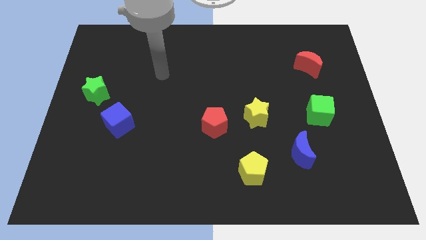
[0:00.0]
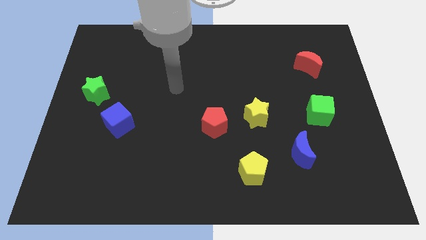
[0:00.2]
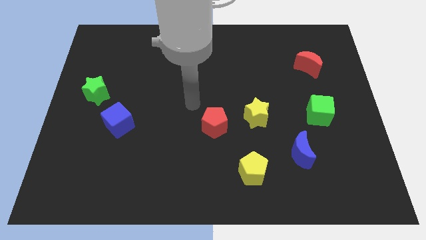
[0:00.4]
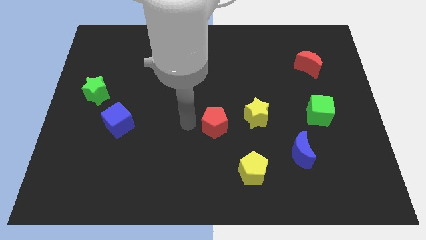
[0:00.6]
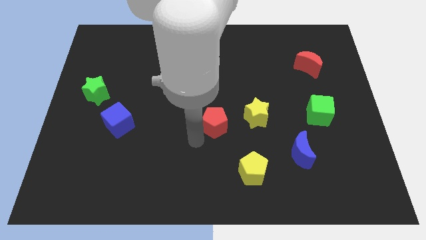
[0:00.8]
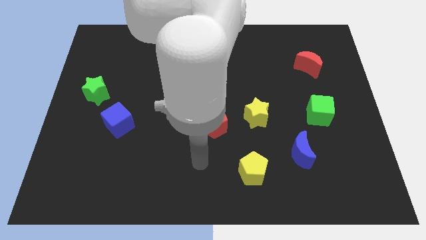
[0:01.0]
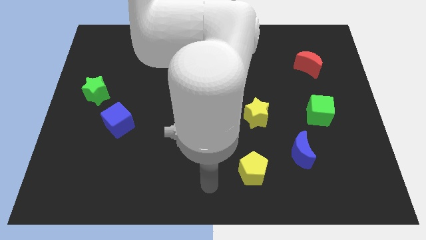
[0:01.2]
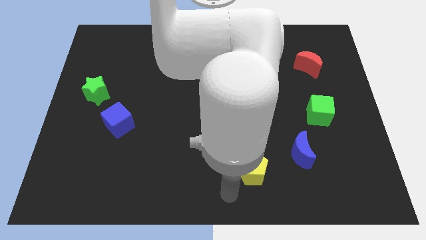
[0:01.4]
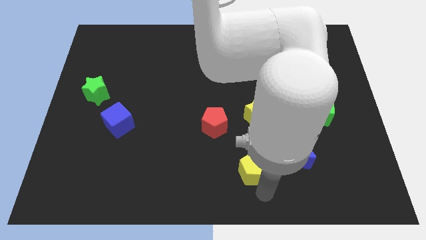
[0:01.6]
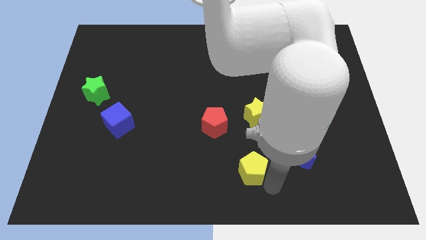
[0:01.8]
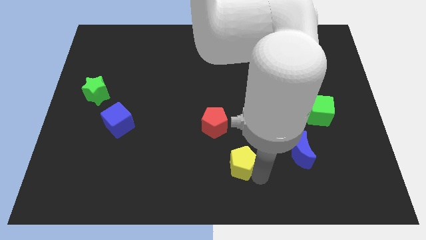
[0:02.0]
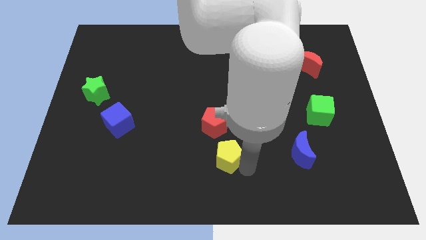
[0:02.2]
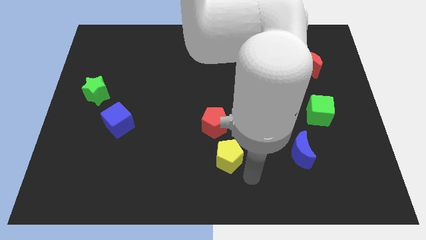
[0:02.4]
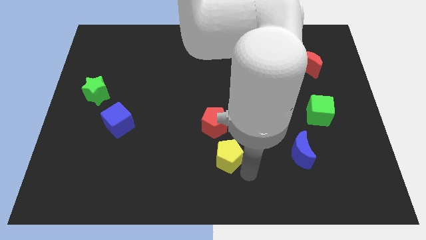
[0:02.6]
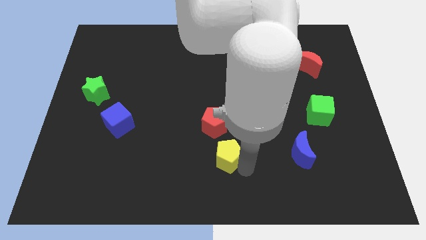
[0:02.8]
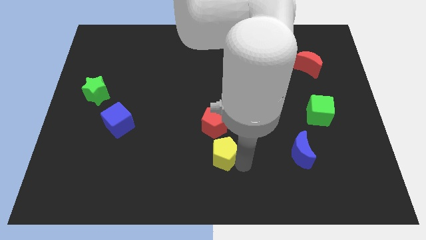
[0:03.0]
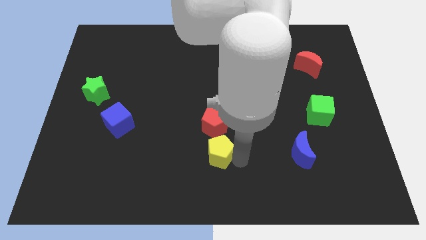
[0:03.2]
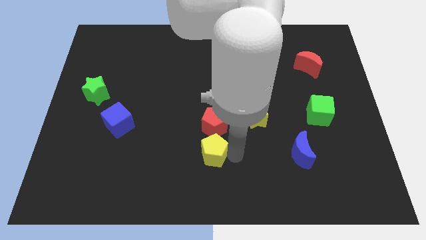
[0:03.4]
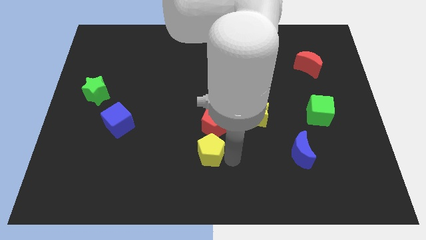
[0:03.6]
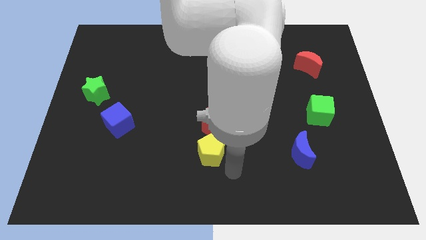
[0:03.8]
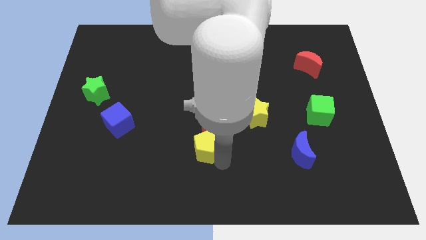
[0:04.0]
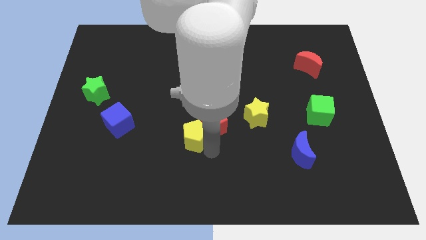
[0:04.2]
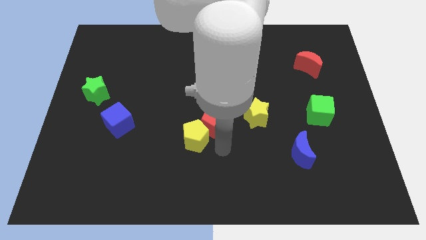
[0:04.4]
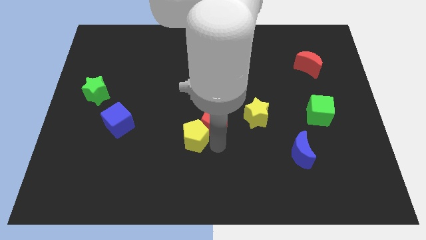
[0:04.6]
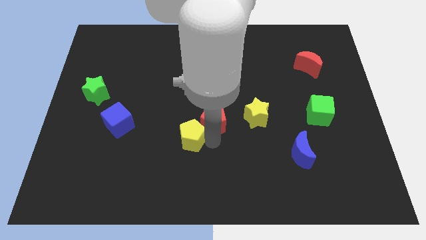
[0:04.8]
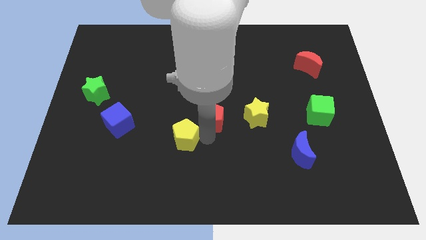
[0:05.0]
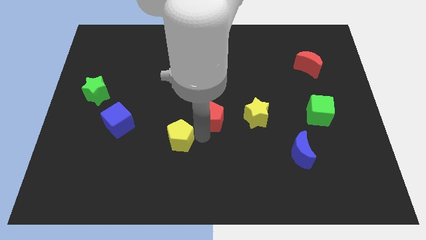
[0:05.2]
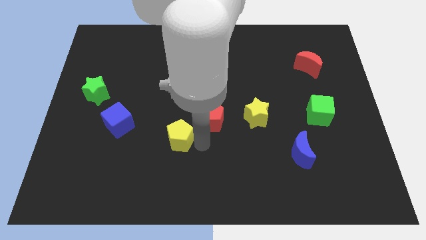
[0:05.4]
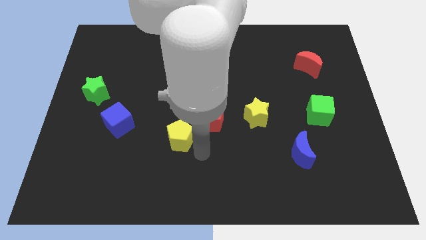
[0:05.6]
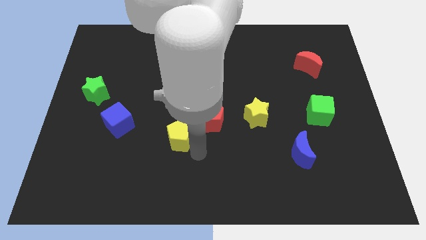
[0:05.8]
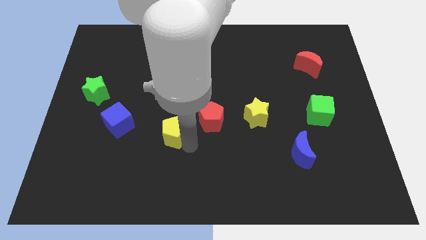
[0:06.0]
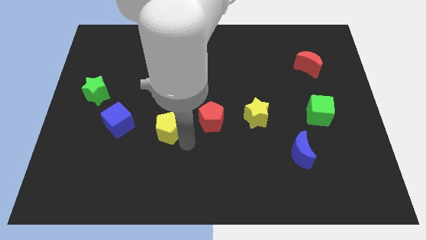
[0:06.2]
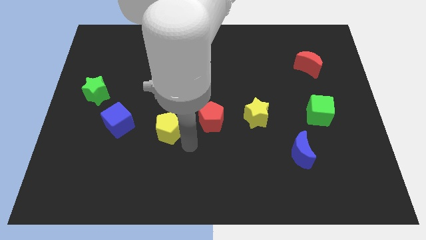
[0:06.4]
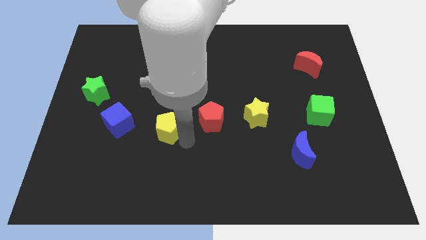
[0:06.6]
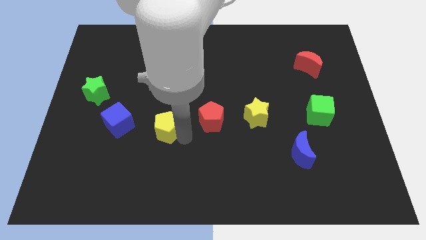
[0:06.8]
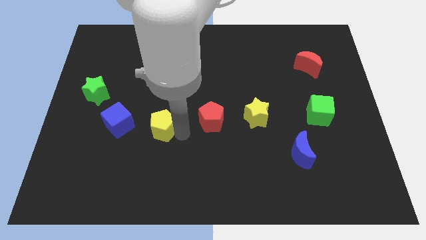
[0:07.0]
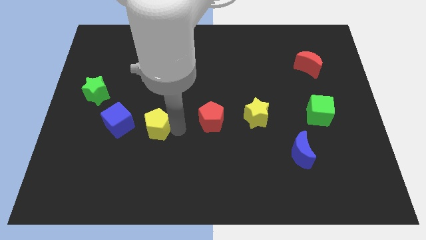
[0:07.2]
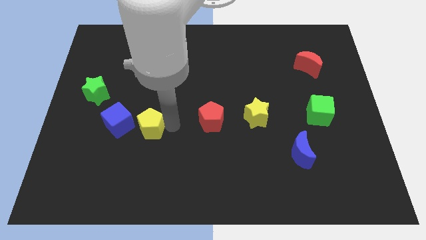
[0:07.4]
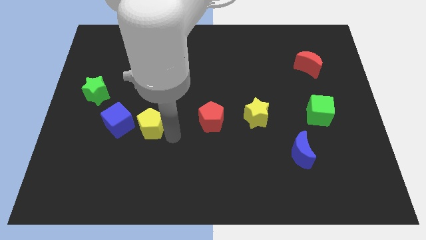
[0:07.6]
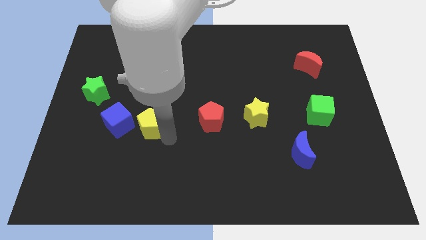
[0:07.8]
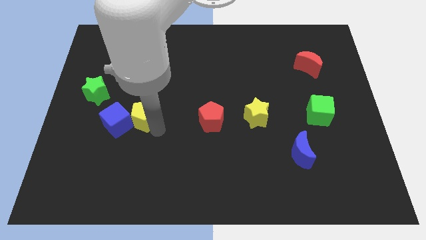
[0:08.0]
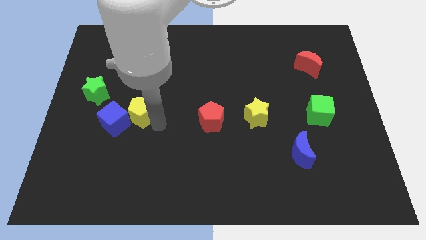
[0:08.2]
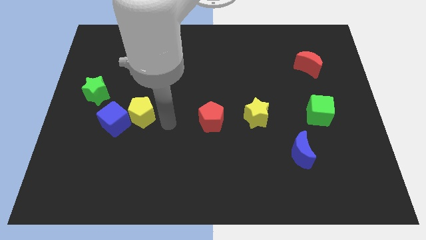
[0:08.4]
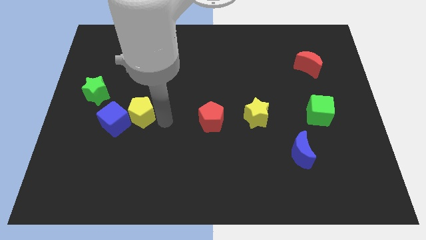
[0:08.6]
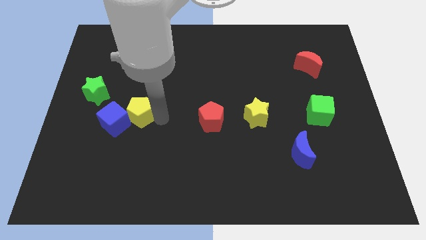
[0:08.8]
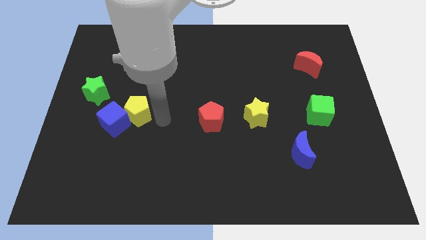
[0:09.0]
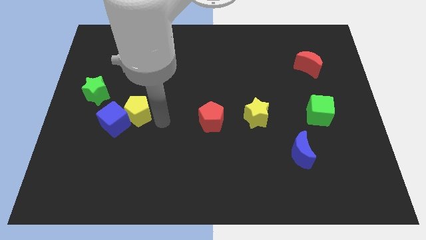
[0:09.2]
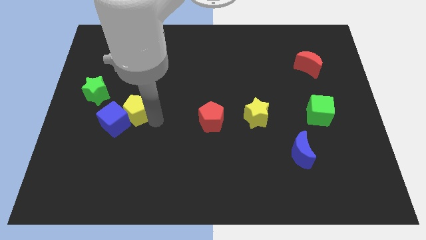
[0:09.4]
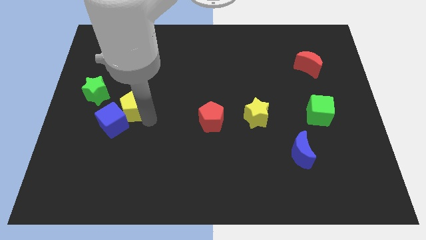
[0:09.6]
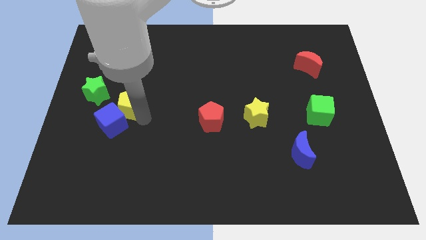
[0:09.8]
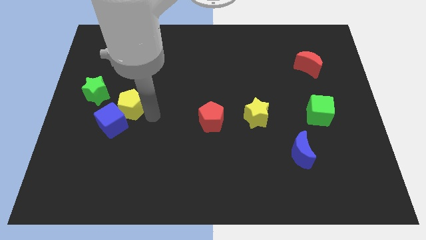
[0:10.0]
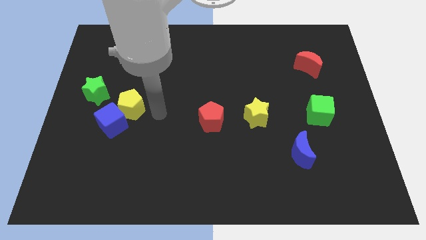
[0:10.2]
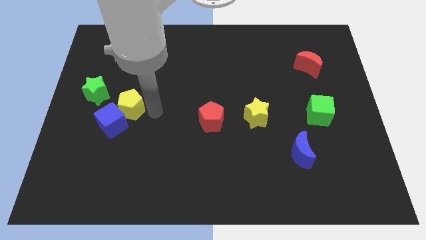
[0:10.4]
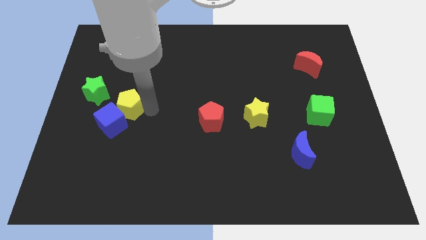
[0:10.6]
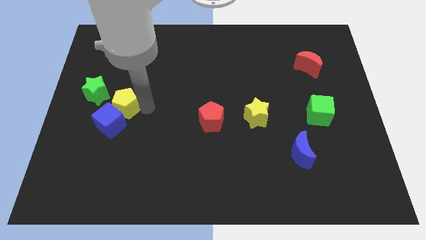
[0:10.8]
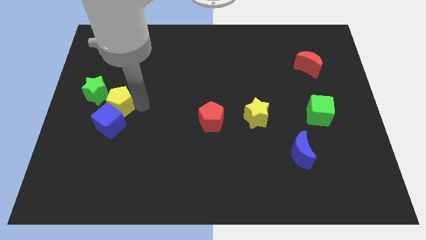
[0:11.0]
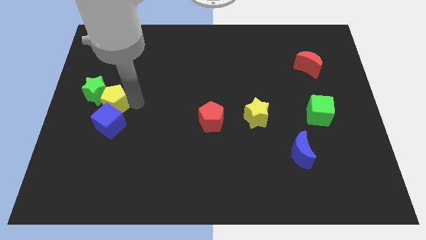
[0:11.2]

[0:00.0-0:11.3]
move the yellow pentagon towards the green star

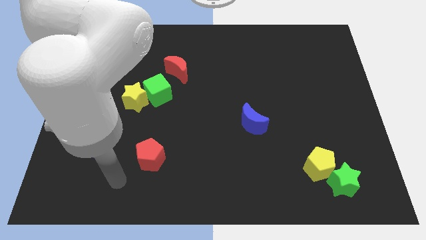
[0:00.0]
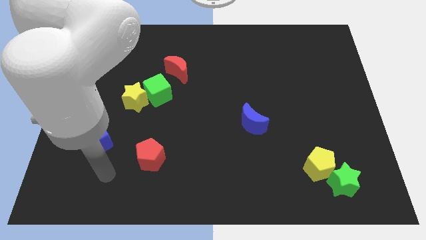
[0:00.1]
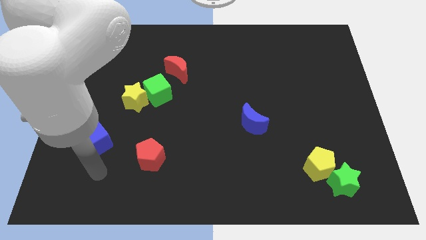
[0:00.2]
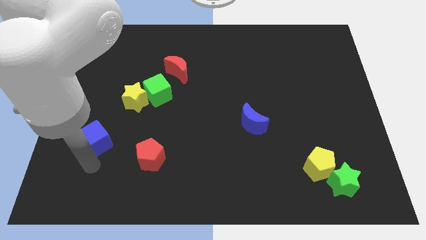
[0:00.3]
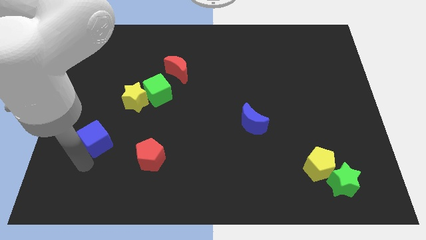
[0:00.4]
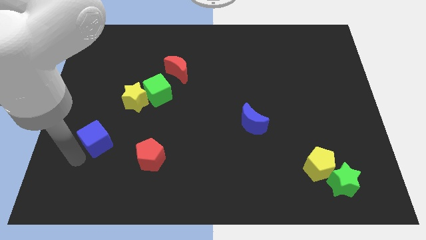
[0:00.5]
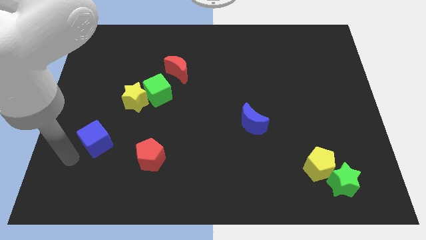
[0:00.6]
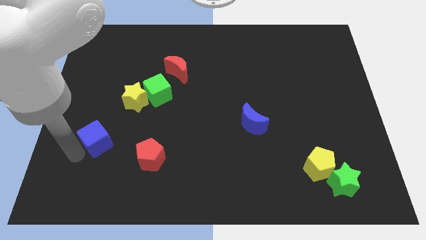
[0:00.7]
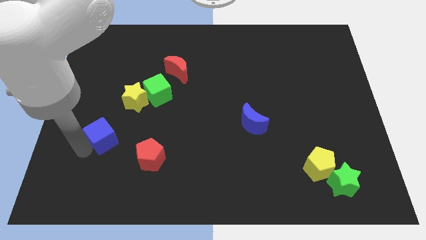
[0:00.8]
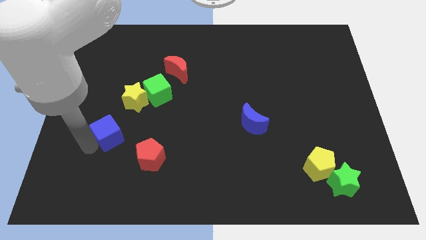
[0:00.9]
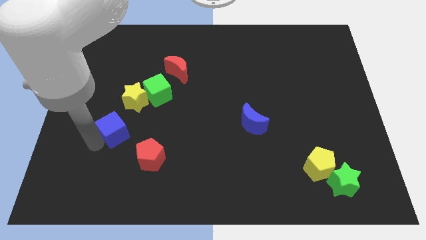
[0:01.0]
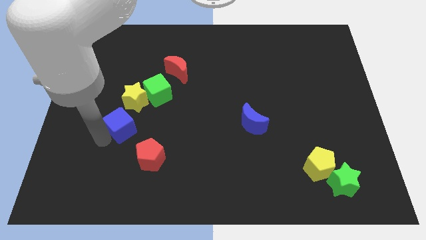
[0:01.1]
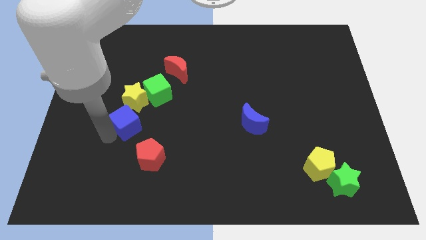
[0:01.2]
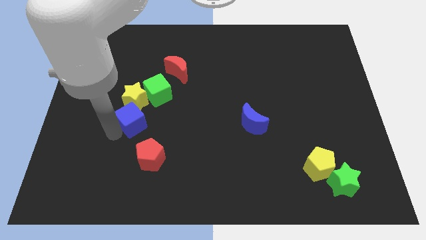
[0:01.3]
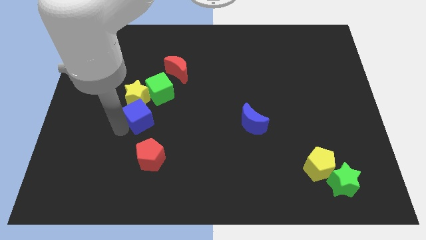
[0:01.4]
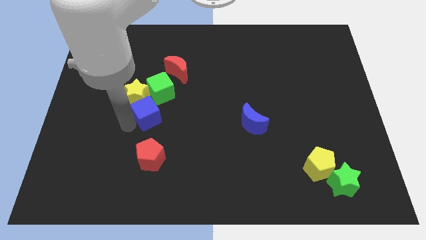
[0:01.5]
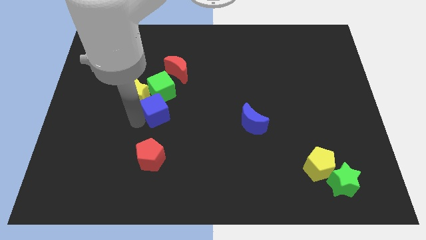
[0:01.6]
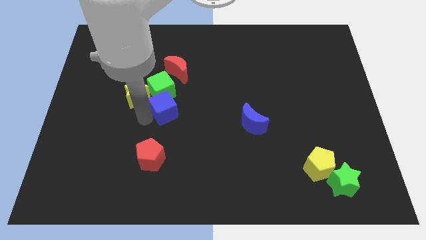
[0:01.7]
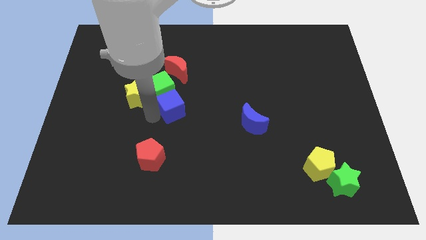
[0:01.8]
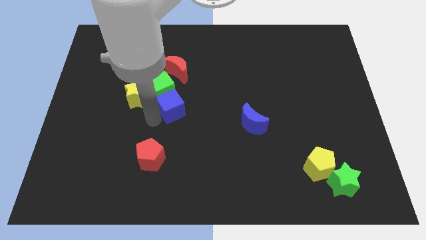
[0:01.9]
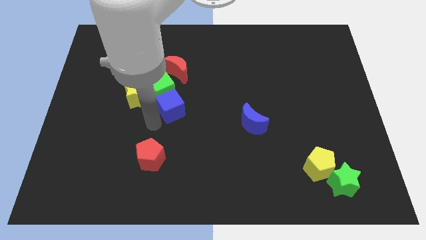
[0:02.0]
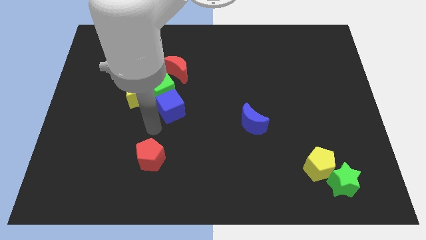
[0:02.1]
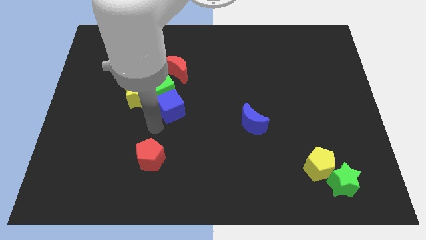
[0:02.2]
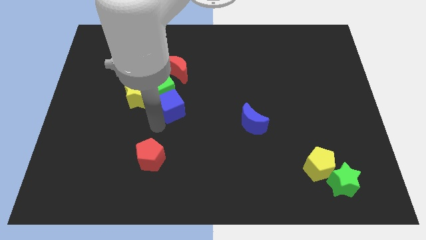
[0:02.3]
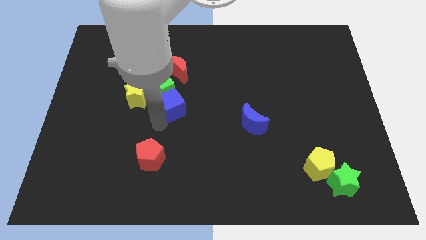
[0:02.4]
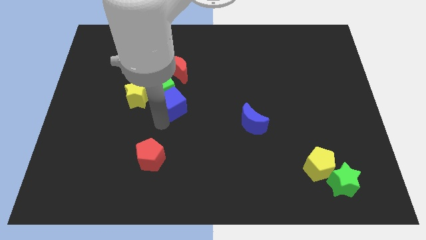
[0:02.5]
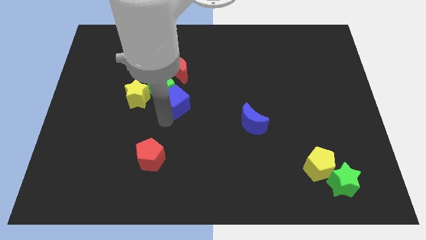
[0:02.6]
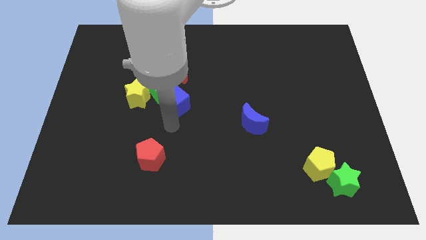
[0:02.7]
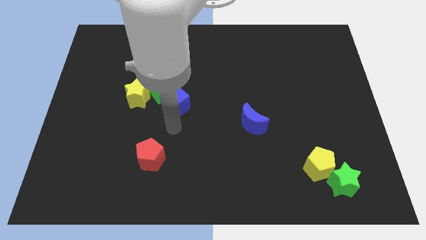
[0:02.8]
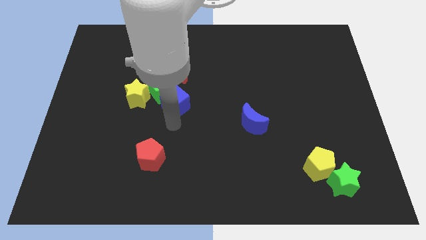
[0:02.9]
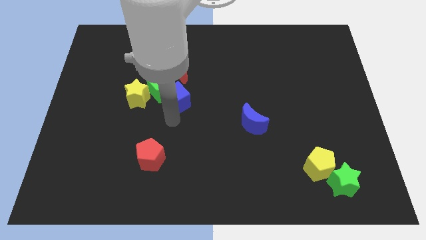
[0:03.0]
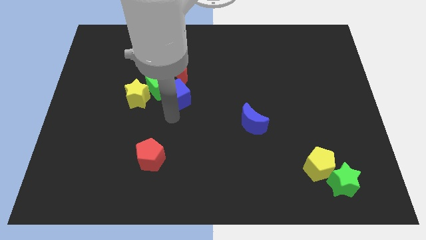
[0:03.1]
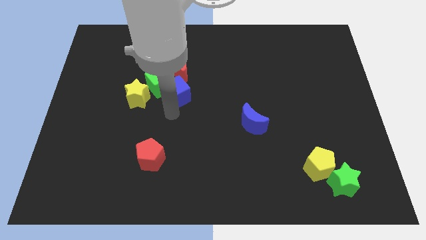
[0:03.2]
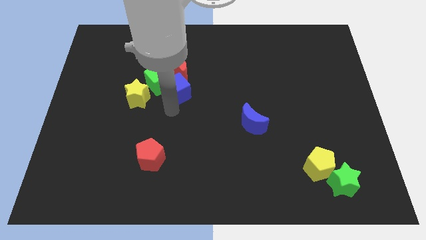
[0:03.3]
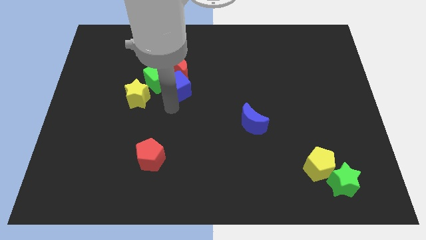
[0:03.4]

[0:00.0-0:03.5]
slide the blue cube next to the red moon
